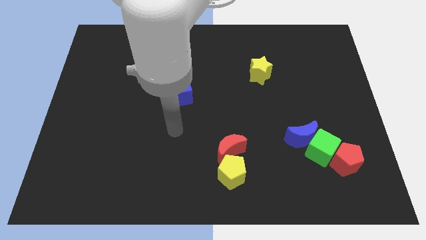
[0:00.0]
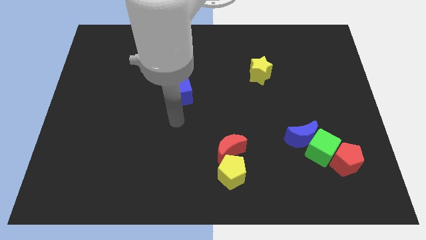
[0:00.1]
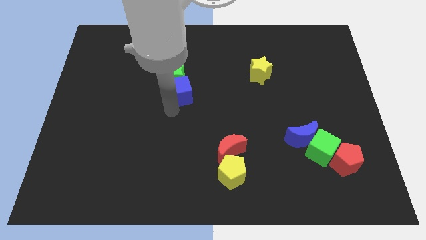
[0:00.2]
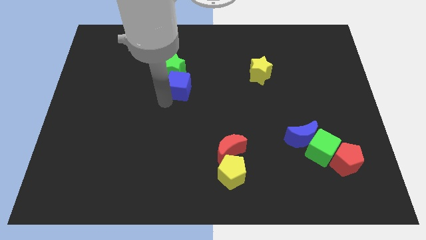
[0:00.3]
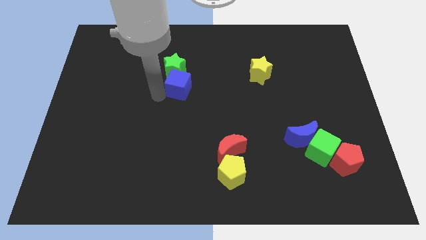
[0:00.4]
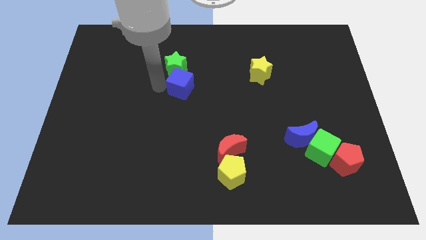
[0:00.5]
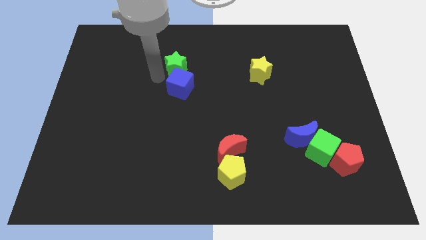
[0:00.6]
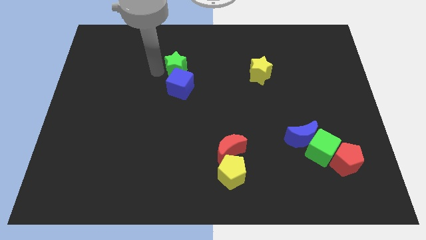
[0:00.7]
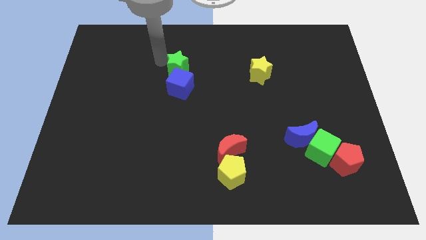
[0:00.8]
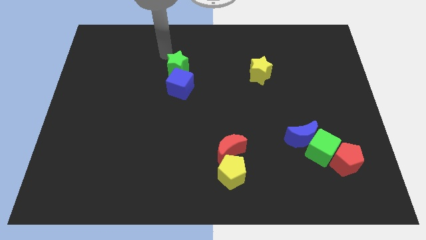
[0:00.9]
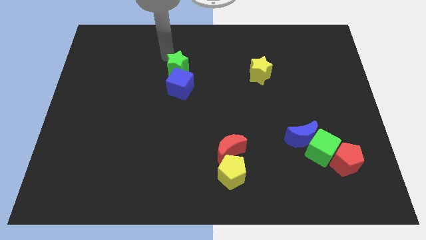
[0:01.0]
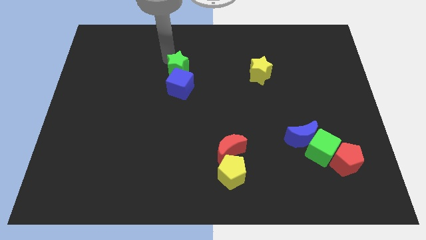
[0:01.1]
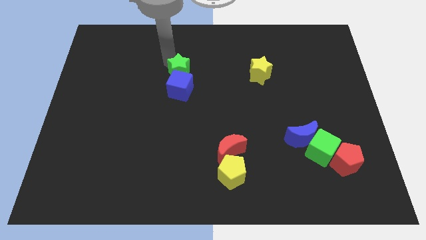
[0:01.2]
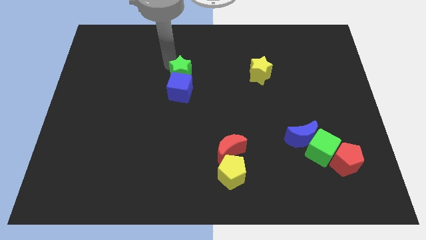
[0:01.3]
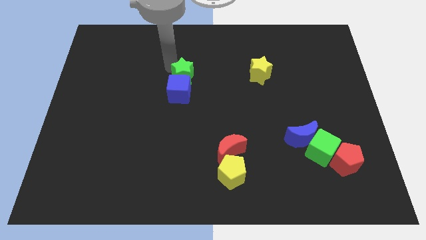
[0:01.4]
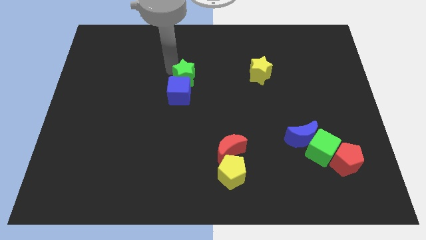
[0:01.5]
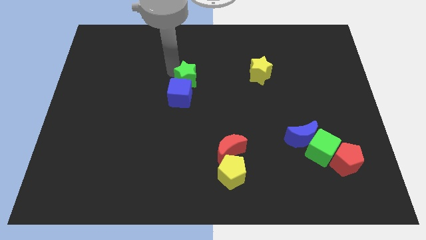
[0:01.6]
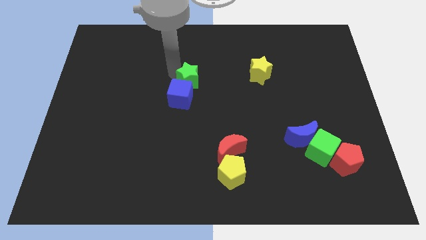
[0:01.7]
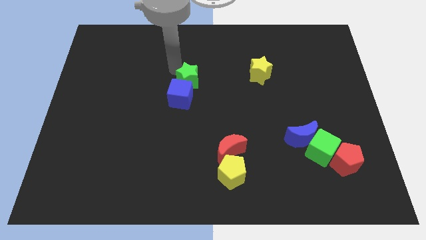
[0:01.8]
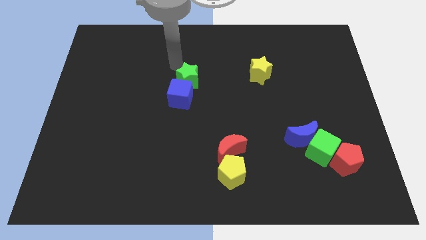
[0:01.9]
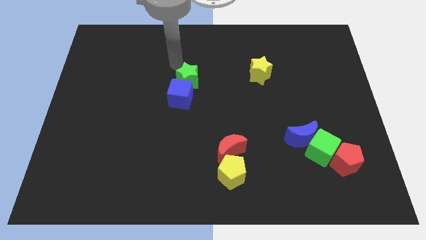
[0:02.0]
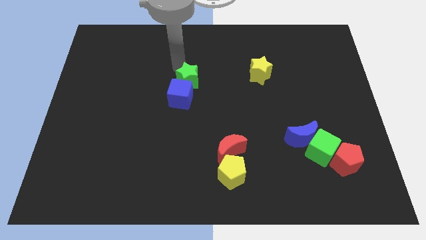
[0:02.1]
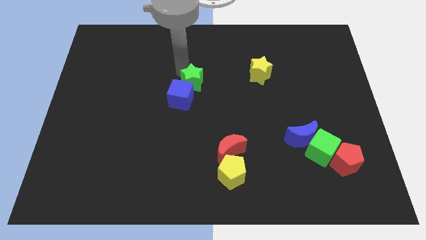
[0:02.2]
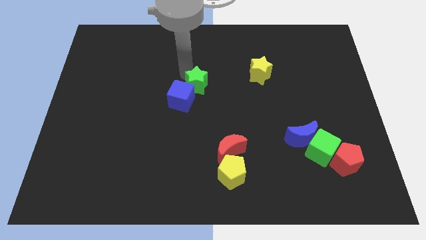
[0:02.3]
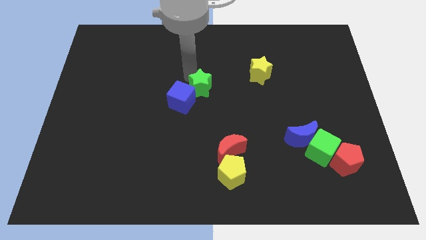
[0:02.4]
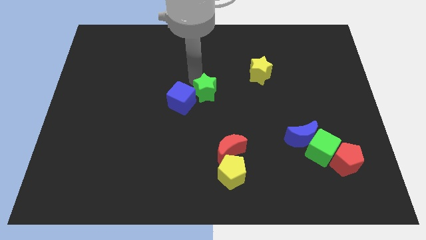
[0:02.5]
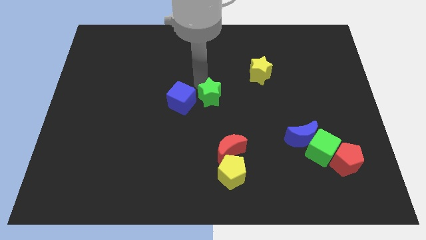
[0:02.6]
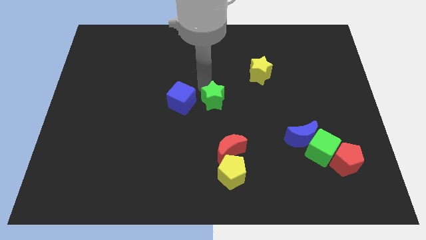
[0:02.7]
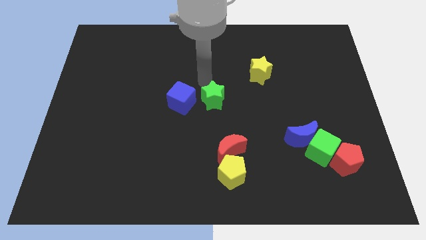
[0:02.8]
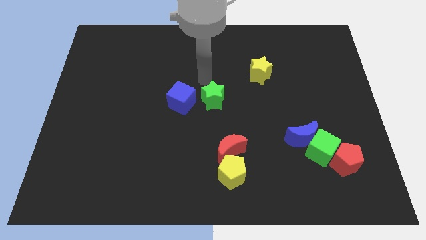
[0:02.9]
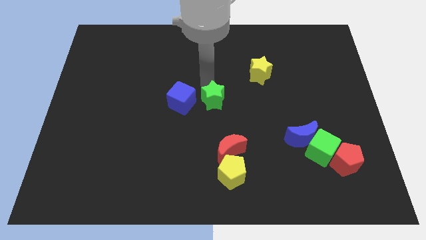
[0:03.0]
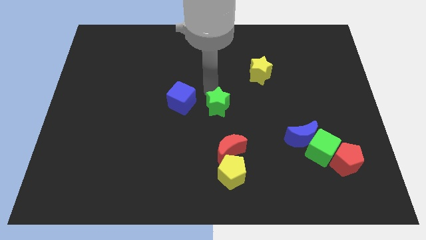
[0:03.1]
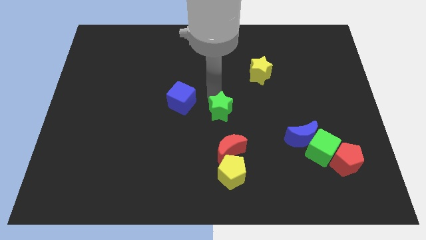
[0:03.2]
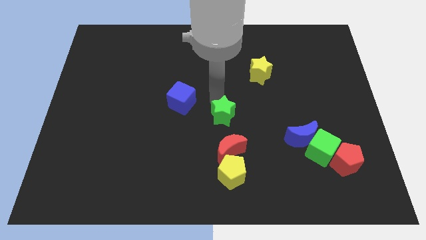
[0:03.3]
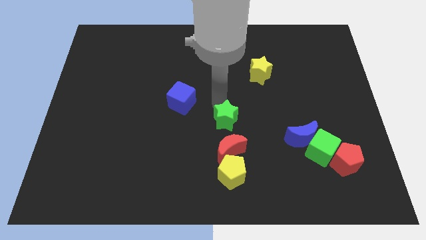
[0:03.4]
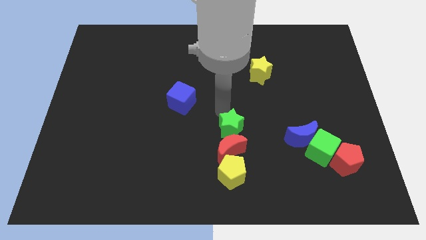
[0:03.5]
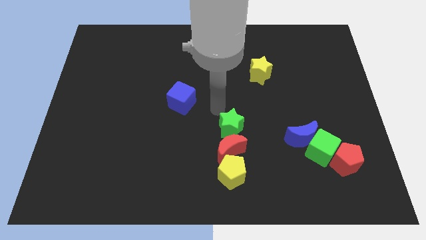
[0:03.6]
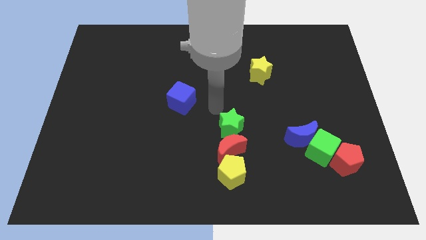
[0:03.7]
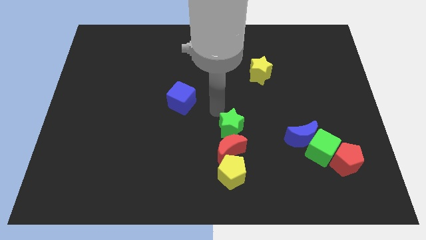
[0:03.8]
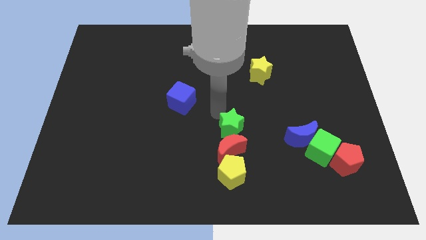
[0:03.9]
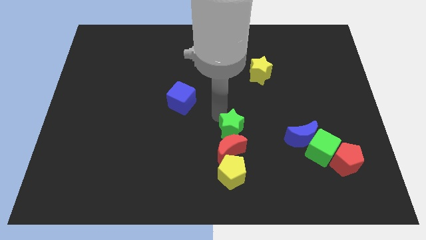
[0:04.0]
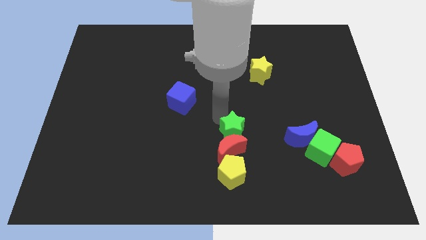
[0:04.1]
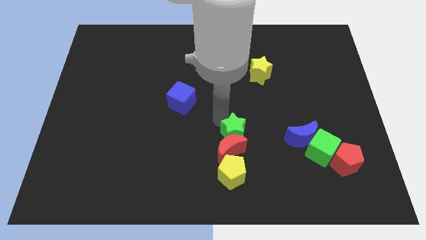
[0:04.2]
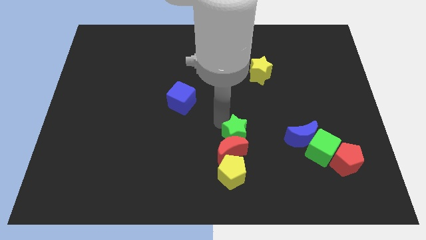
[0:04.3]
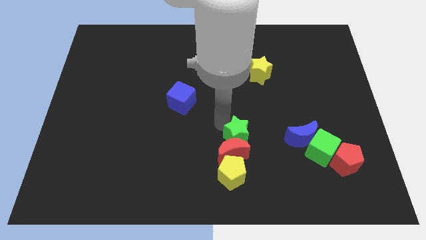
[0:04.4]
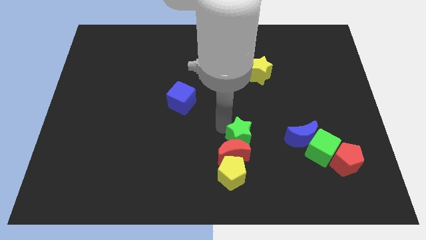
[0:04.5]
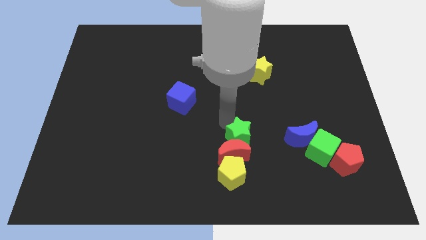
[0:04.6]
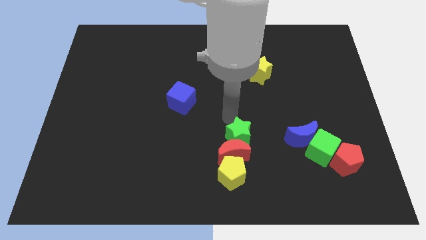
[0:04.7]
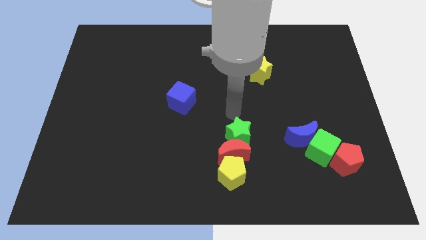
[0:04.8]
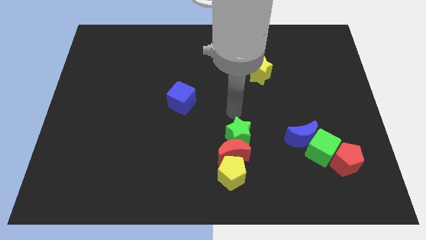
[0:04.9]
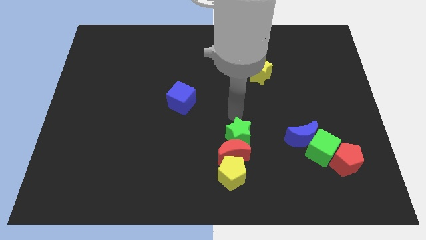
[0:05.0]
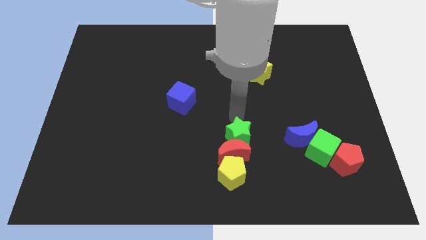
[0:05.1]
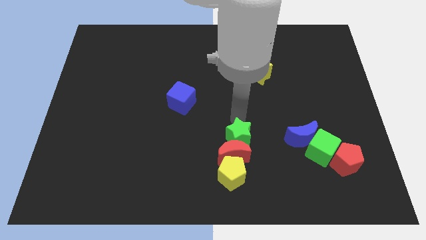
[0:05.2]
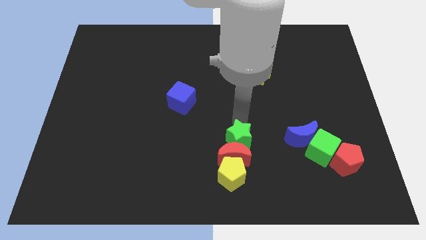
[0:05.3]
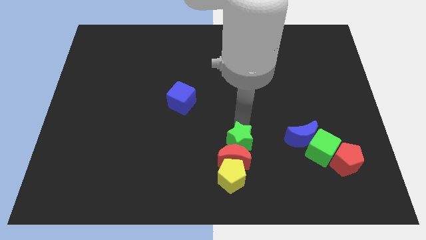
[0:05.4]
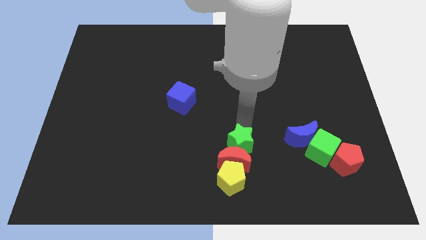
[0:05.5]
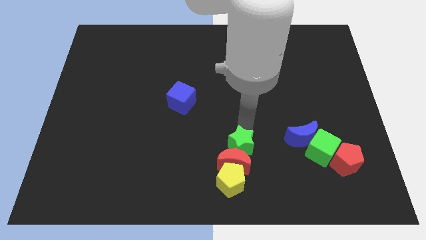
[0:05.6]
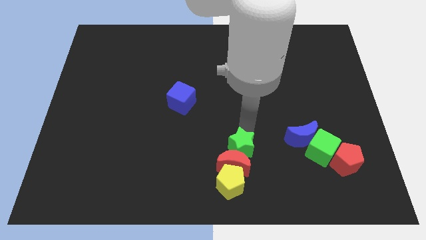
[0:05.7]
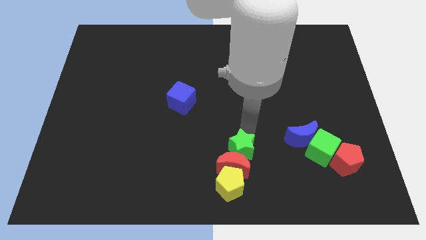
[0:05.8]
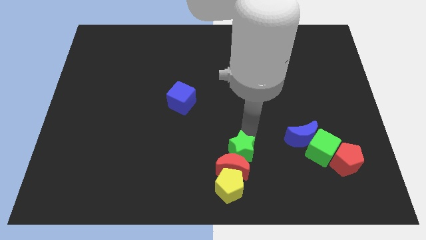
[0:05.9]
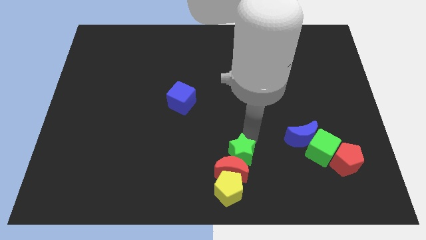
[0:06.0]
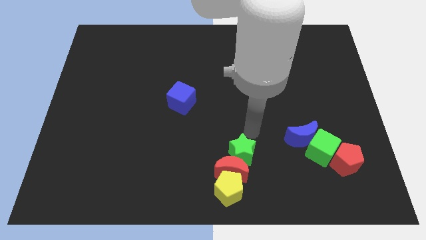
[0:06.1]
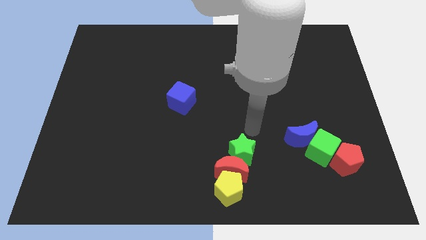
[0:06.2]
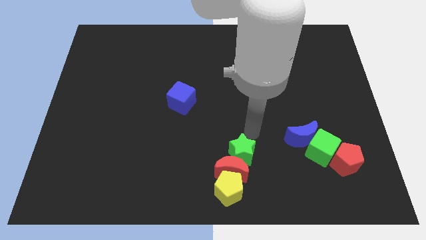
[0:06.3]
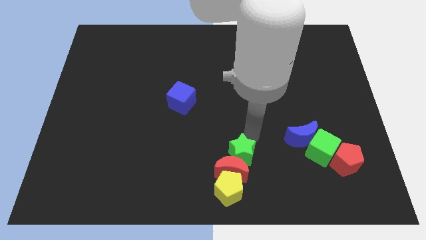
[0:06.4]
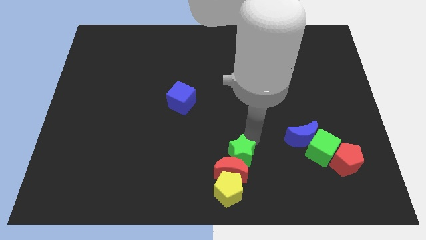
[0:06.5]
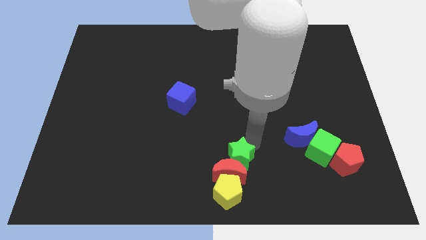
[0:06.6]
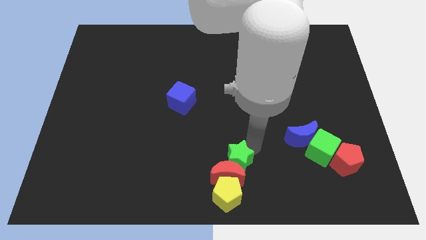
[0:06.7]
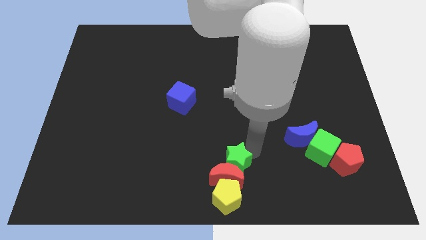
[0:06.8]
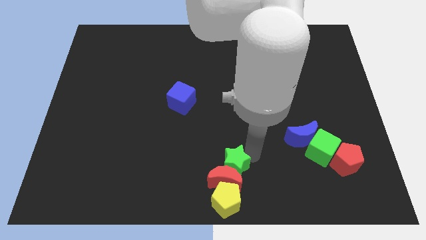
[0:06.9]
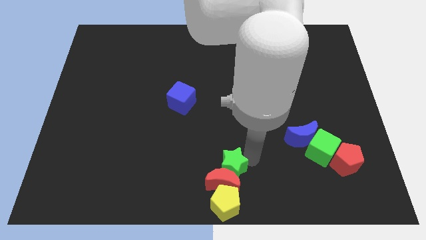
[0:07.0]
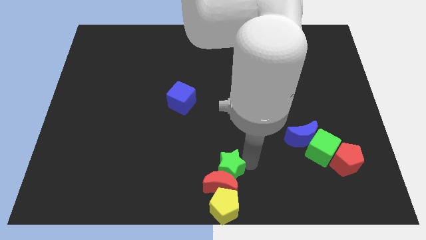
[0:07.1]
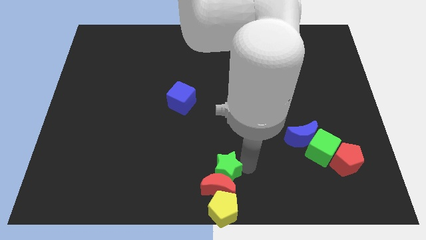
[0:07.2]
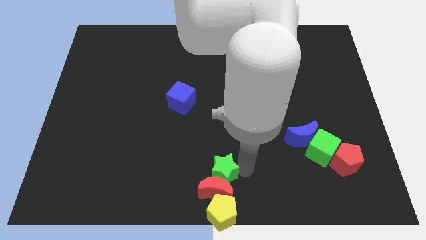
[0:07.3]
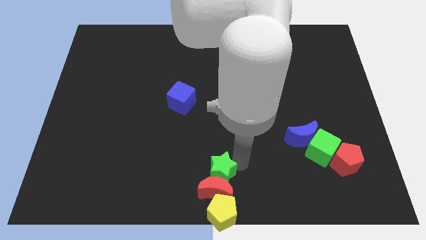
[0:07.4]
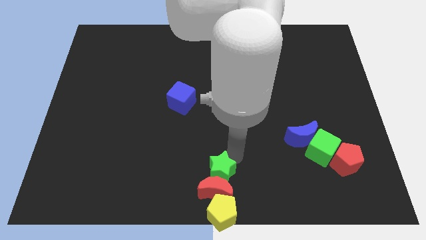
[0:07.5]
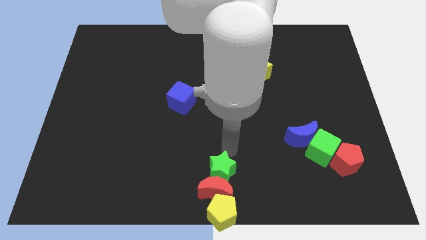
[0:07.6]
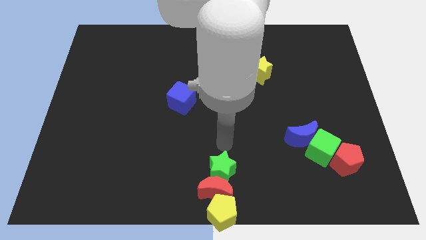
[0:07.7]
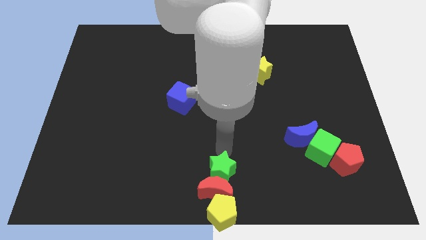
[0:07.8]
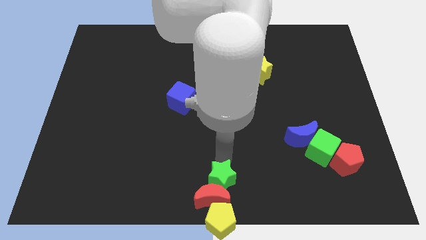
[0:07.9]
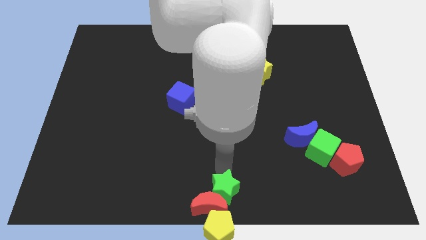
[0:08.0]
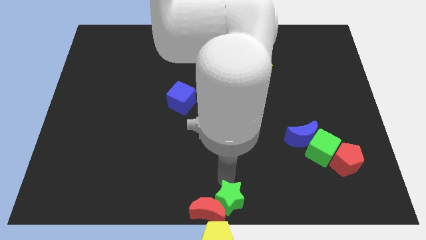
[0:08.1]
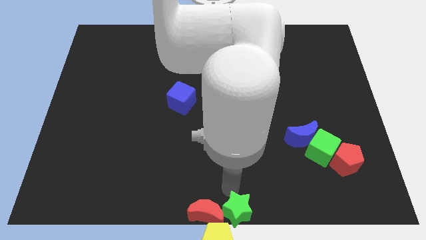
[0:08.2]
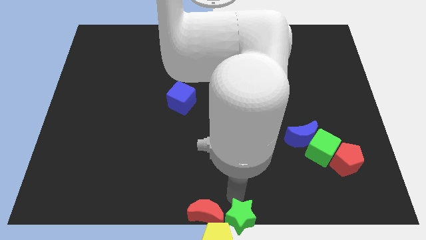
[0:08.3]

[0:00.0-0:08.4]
slide the green star to the yellow pentagon
